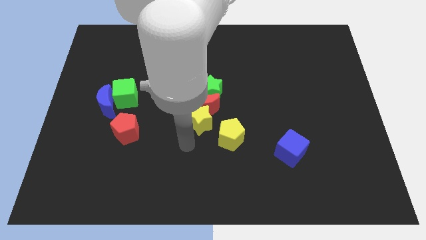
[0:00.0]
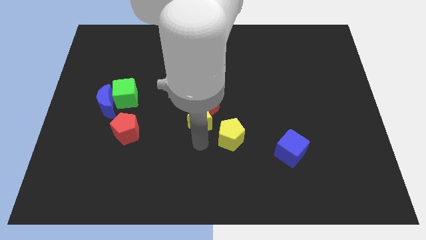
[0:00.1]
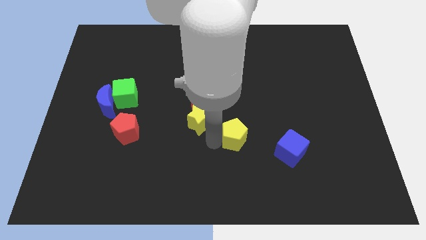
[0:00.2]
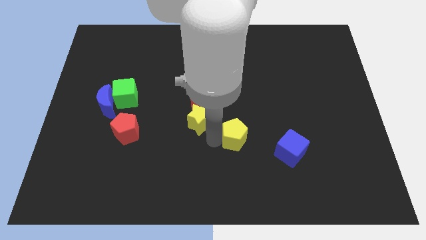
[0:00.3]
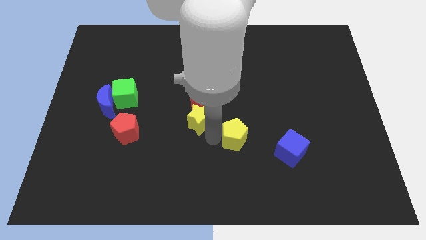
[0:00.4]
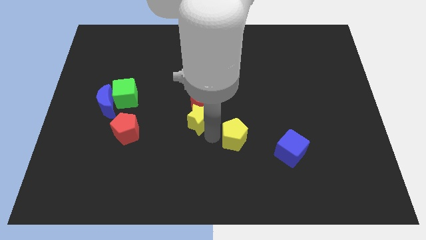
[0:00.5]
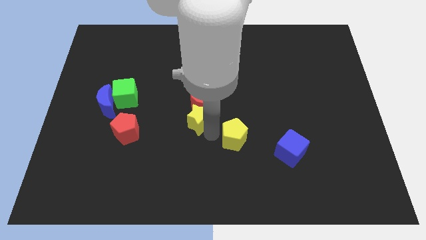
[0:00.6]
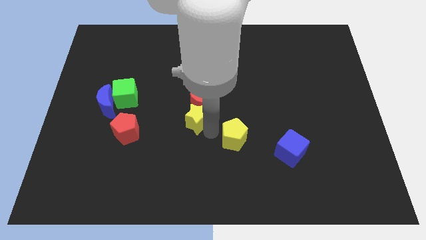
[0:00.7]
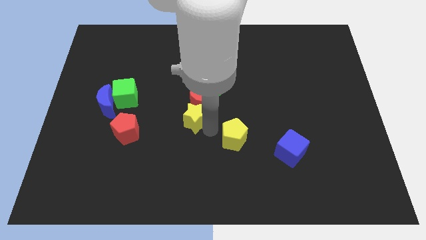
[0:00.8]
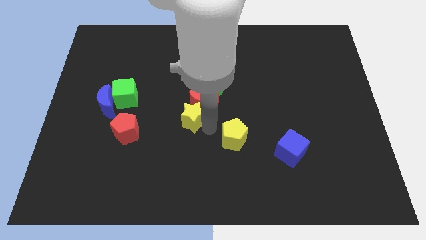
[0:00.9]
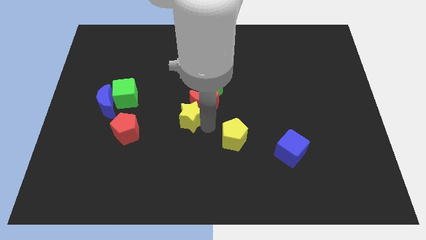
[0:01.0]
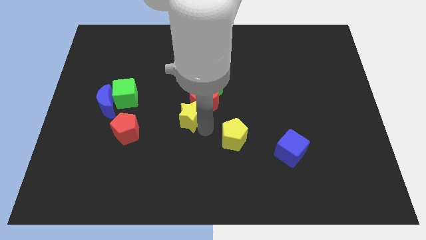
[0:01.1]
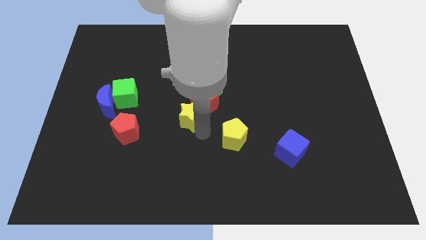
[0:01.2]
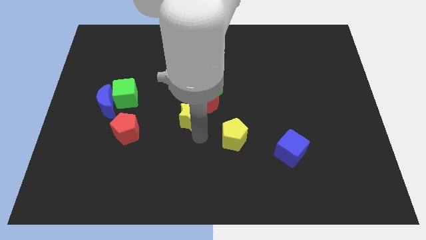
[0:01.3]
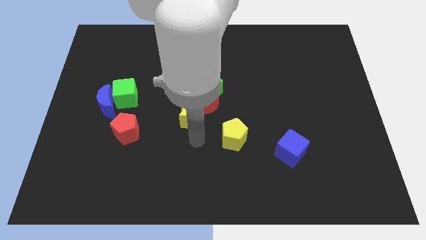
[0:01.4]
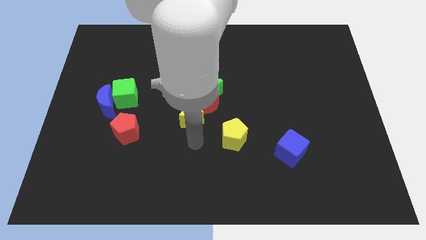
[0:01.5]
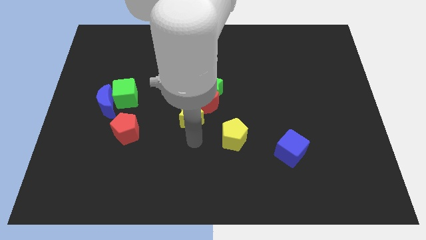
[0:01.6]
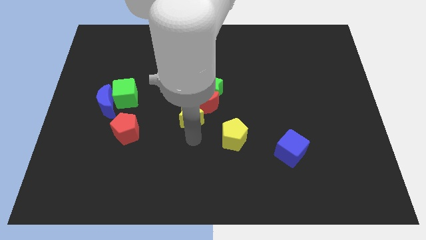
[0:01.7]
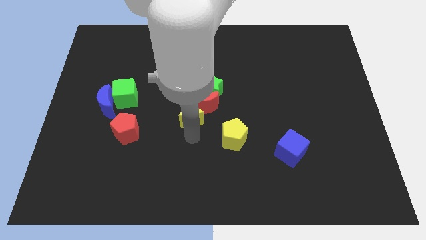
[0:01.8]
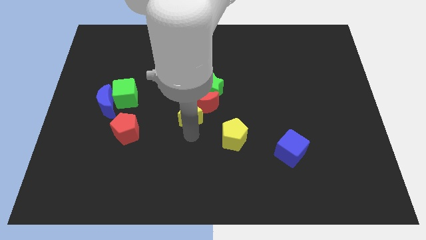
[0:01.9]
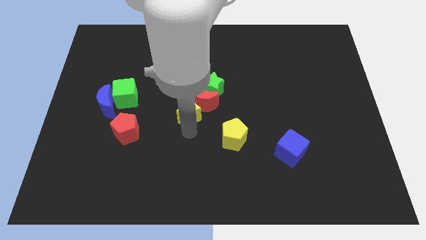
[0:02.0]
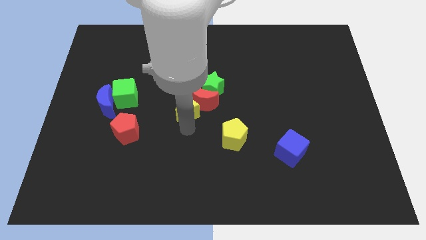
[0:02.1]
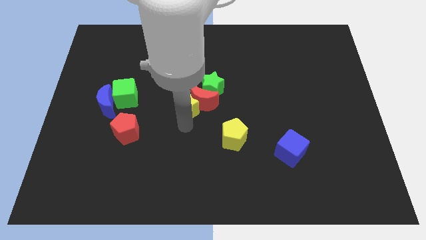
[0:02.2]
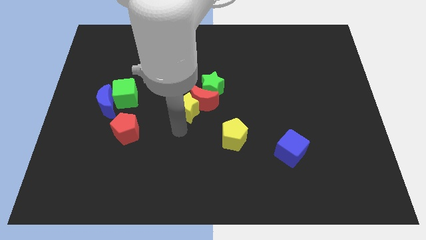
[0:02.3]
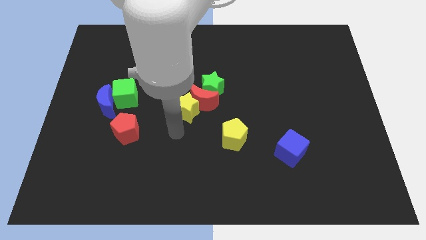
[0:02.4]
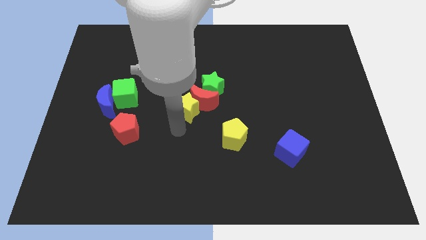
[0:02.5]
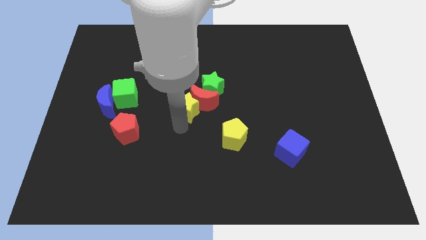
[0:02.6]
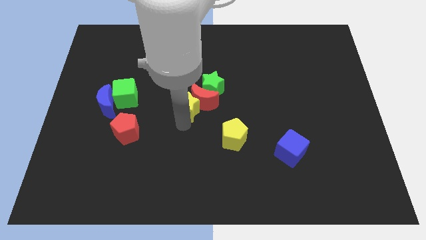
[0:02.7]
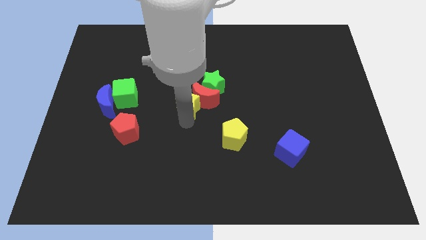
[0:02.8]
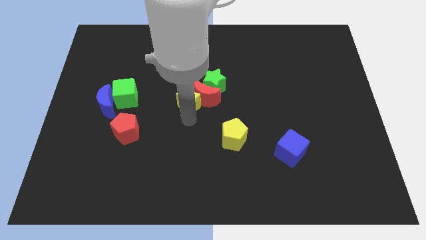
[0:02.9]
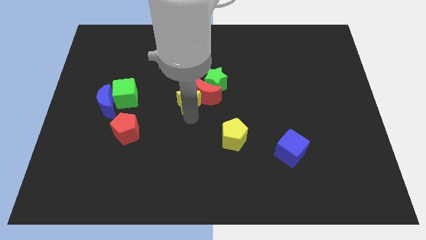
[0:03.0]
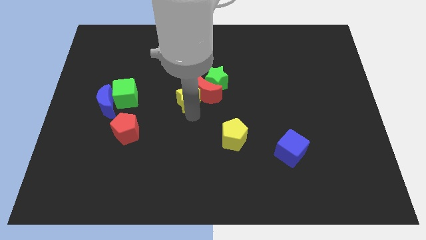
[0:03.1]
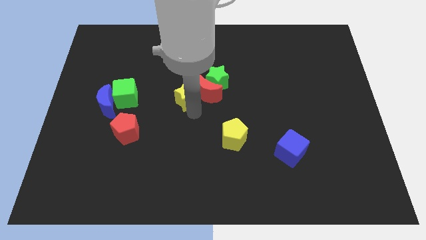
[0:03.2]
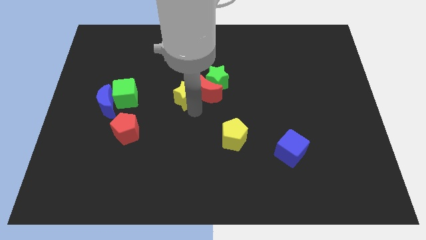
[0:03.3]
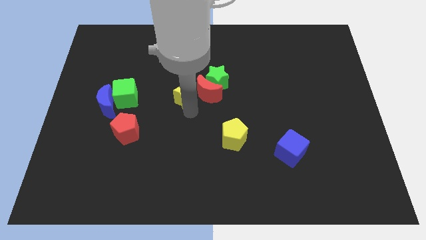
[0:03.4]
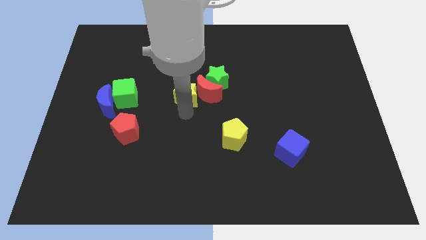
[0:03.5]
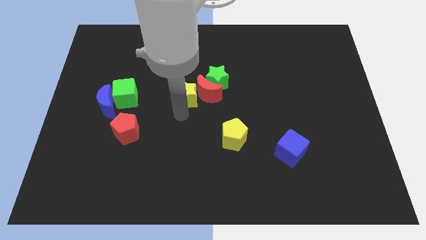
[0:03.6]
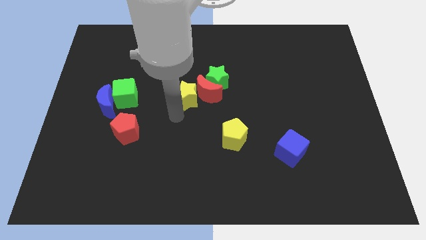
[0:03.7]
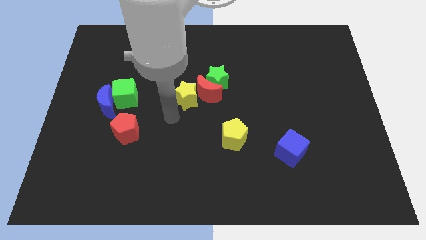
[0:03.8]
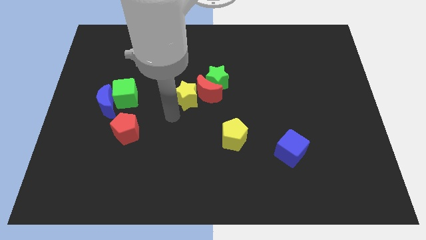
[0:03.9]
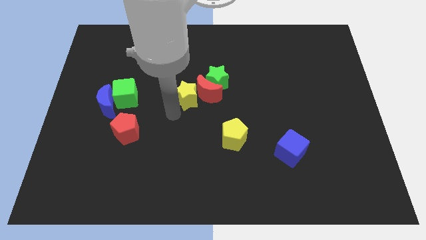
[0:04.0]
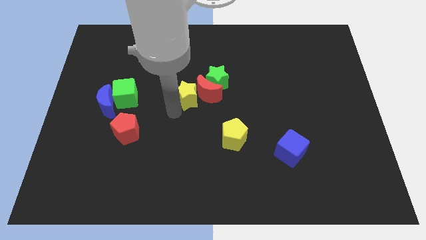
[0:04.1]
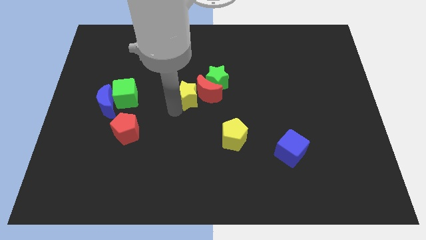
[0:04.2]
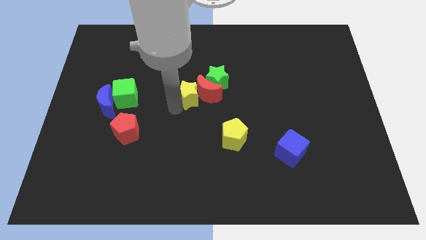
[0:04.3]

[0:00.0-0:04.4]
push the yellow star somewhat upwards

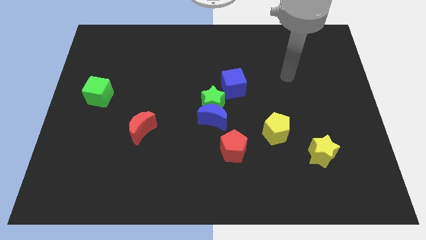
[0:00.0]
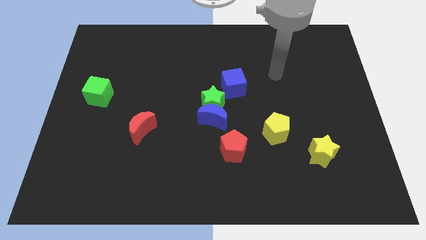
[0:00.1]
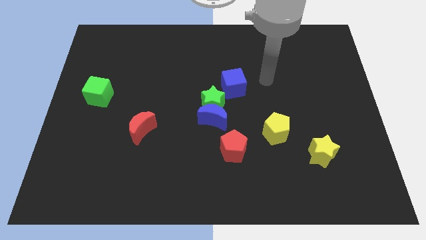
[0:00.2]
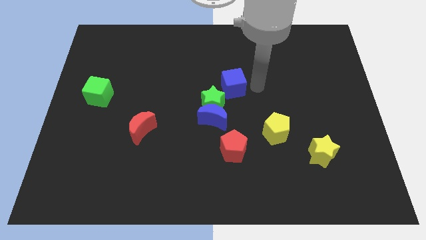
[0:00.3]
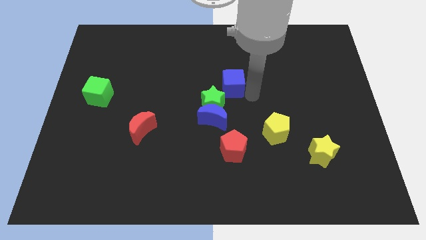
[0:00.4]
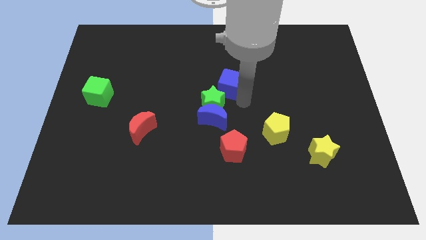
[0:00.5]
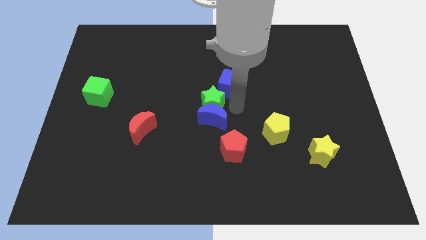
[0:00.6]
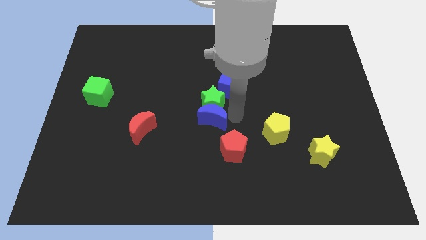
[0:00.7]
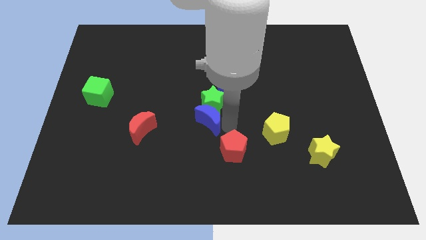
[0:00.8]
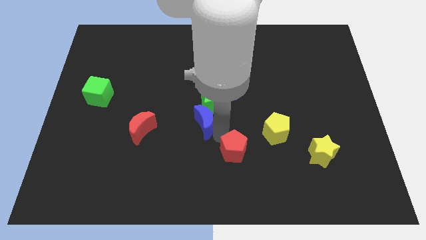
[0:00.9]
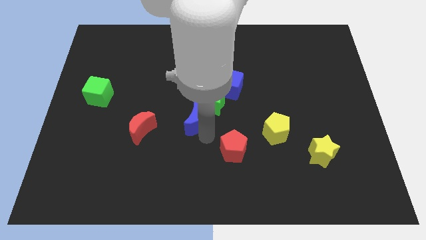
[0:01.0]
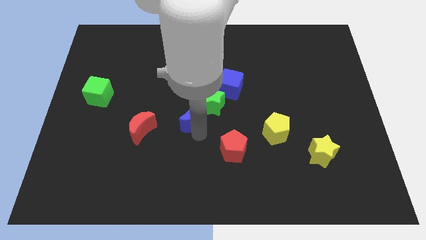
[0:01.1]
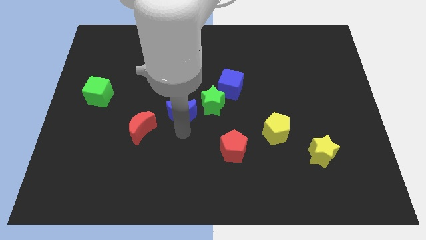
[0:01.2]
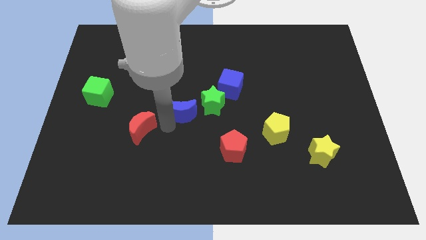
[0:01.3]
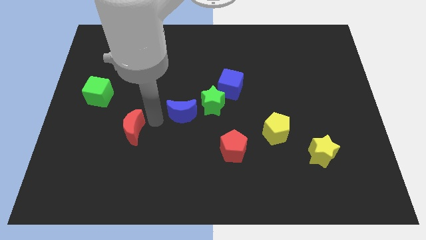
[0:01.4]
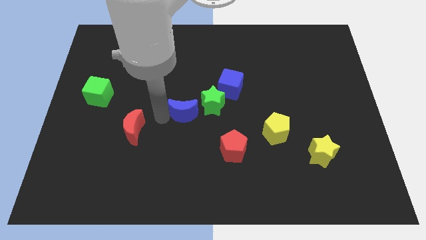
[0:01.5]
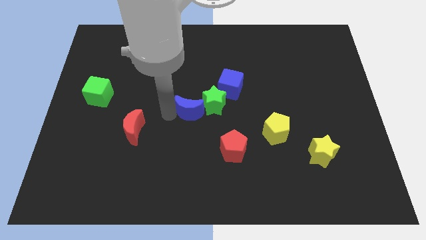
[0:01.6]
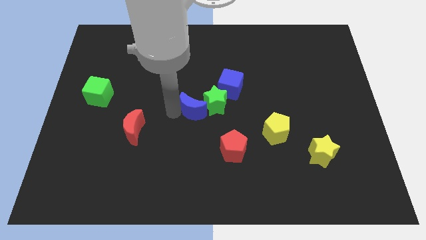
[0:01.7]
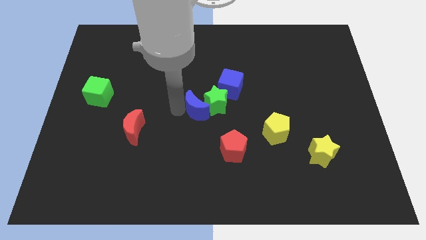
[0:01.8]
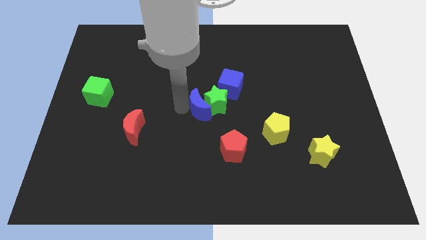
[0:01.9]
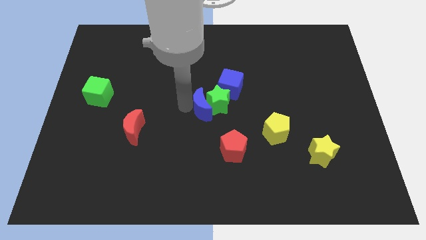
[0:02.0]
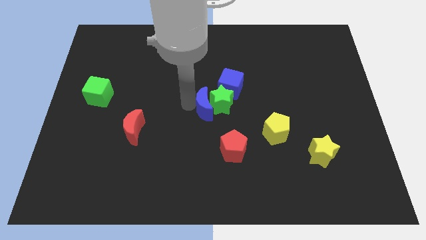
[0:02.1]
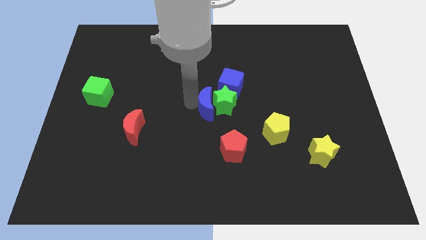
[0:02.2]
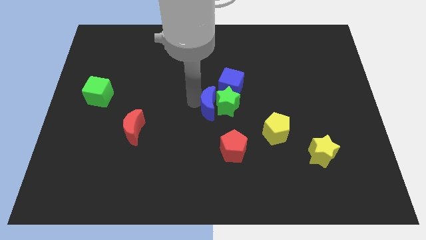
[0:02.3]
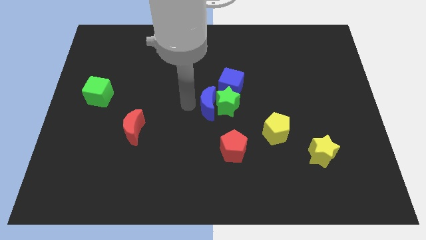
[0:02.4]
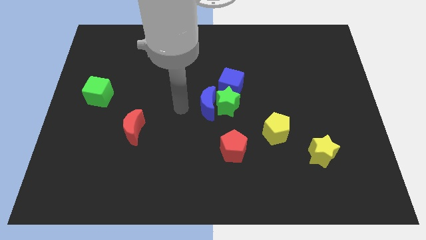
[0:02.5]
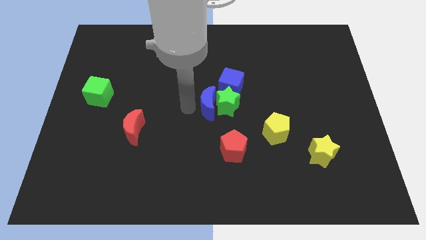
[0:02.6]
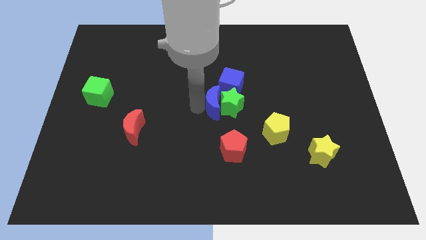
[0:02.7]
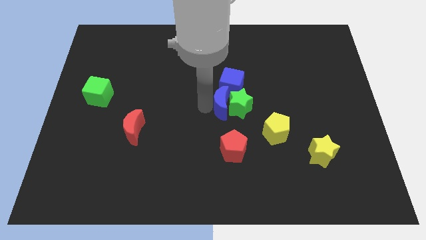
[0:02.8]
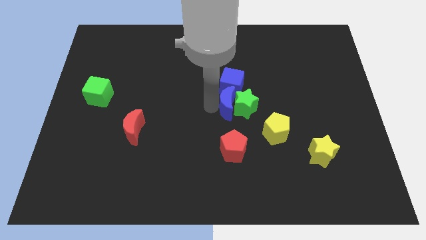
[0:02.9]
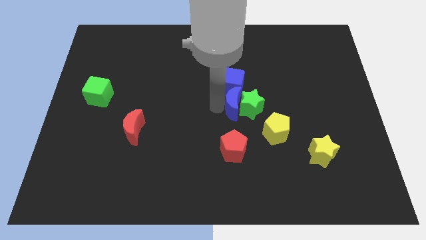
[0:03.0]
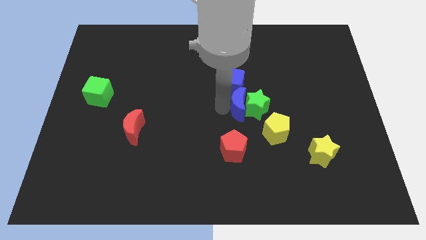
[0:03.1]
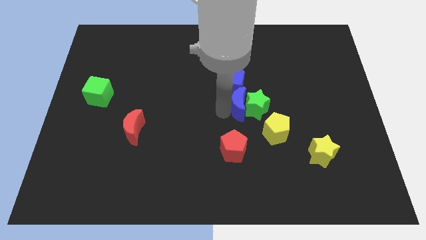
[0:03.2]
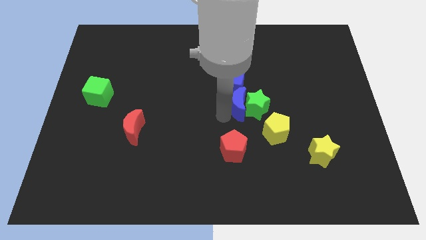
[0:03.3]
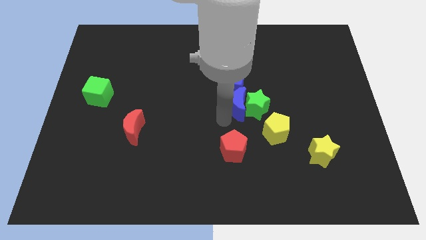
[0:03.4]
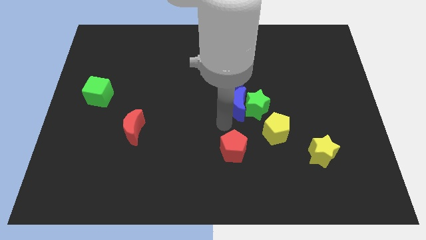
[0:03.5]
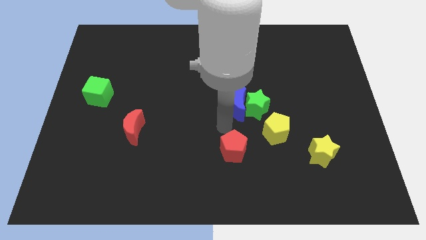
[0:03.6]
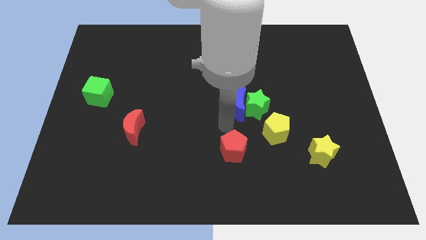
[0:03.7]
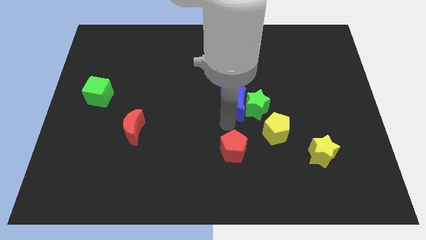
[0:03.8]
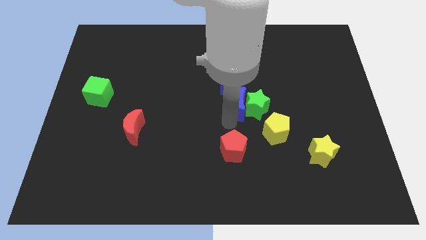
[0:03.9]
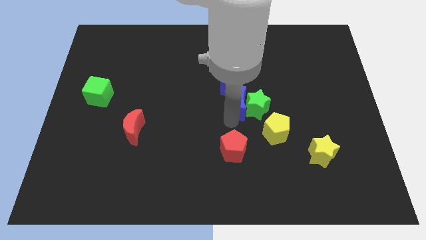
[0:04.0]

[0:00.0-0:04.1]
slightly push the blue moon up and right
